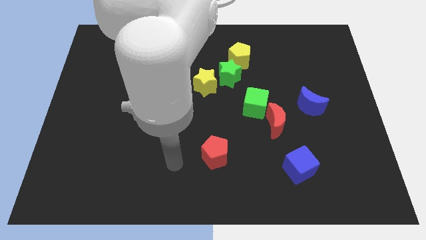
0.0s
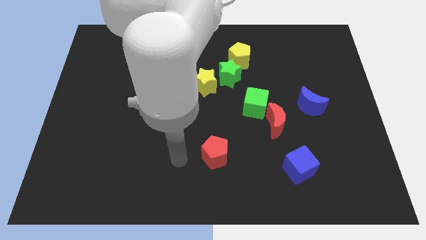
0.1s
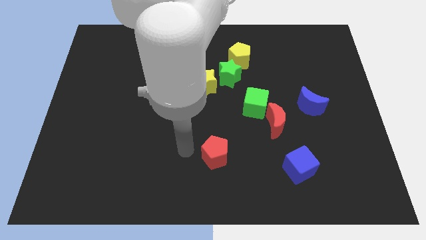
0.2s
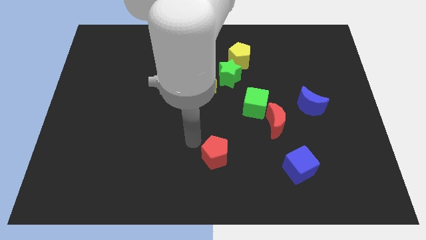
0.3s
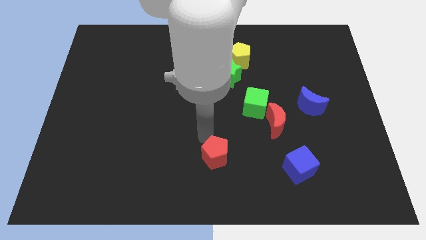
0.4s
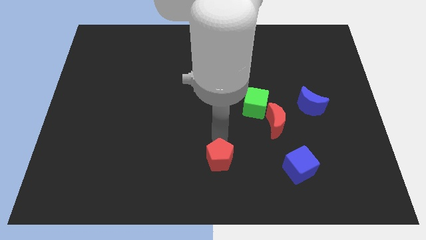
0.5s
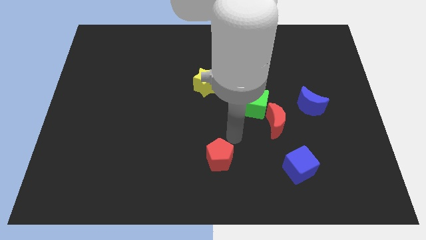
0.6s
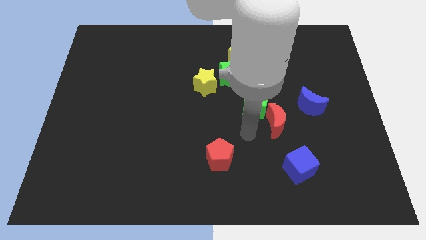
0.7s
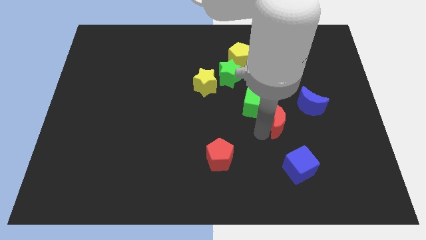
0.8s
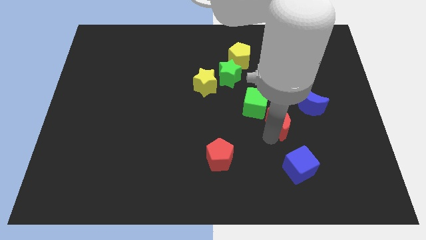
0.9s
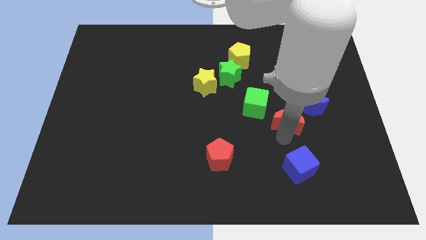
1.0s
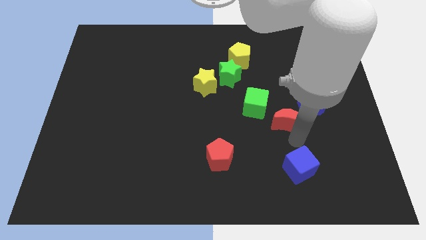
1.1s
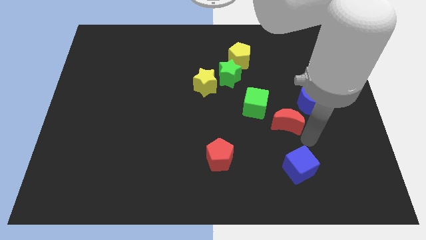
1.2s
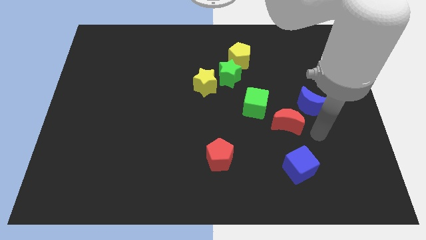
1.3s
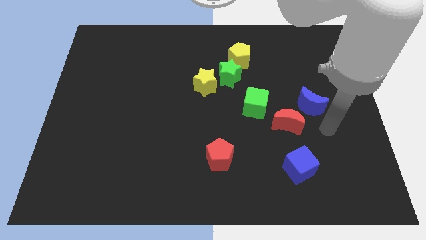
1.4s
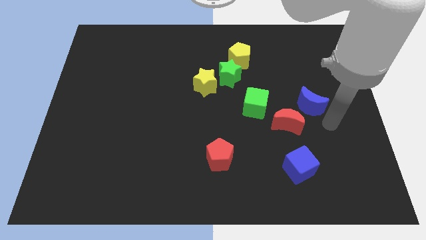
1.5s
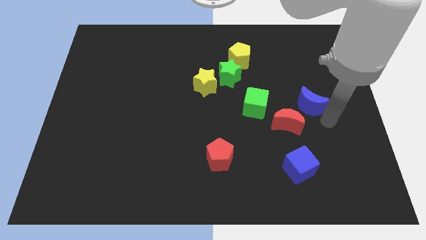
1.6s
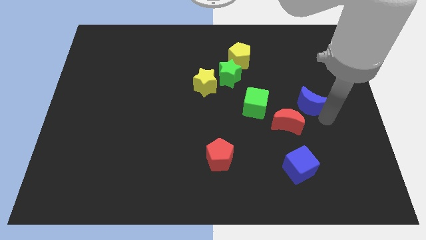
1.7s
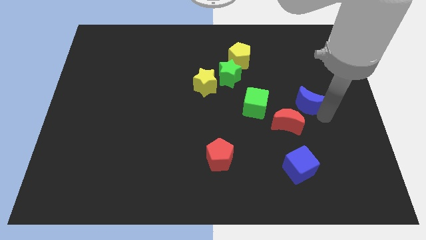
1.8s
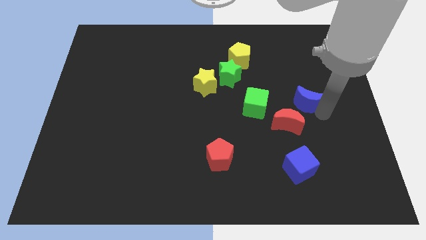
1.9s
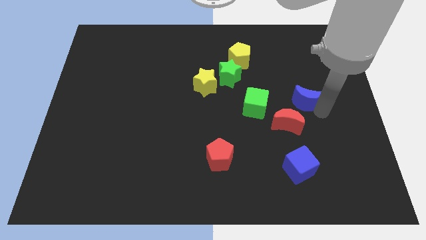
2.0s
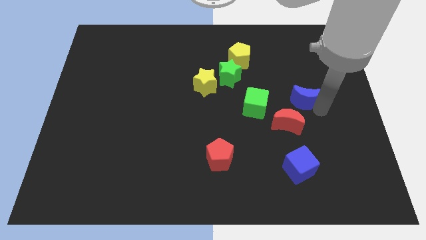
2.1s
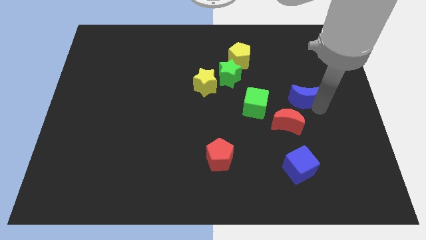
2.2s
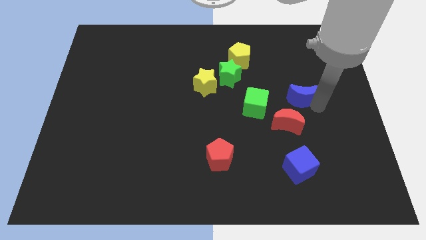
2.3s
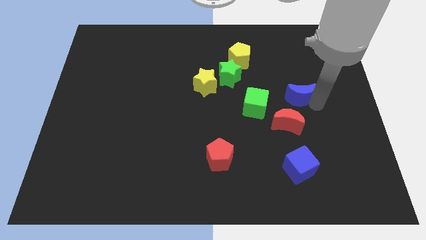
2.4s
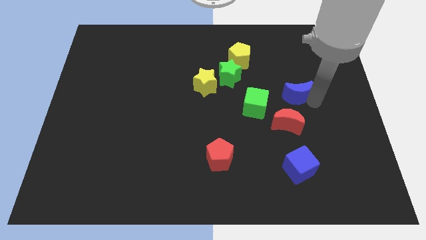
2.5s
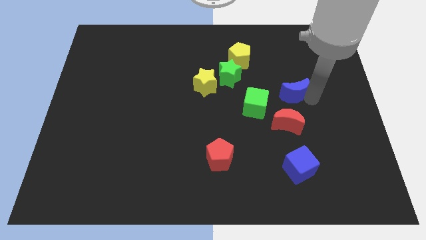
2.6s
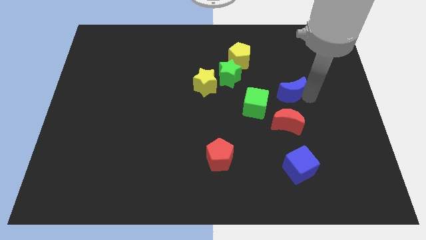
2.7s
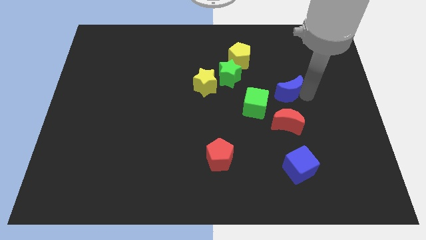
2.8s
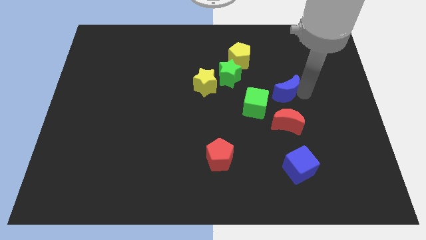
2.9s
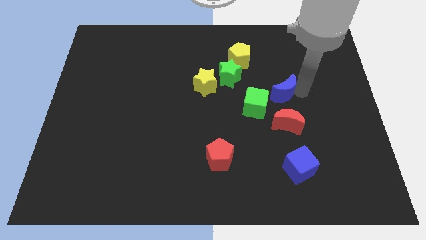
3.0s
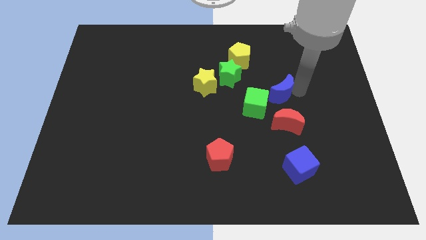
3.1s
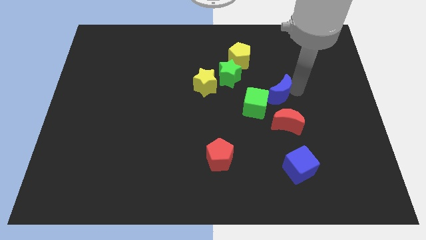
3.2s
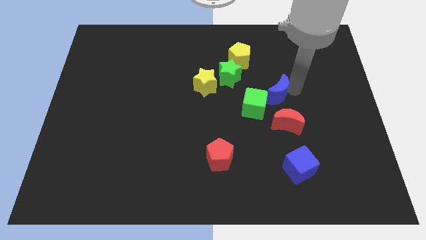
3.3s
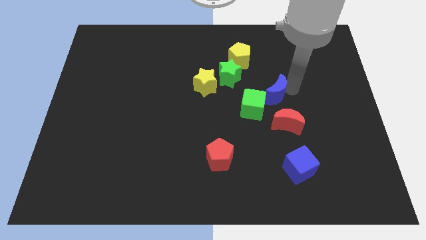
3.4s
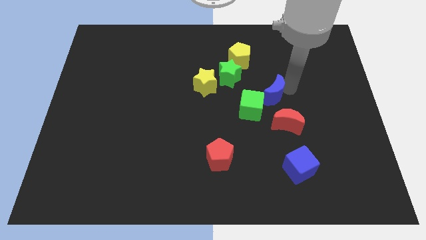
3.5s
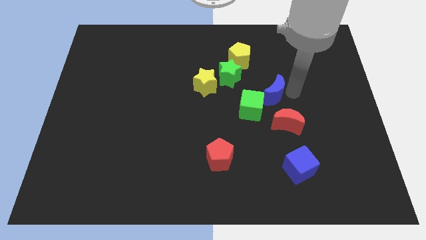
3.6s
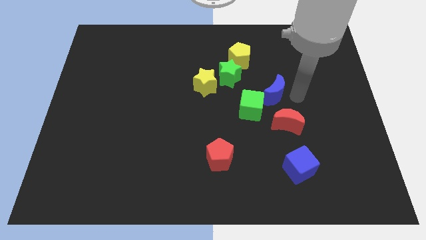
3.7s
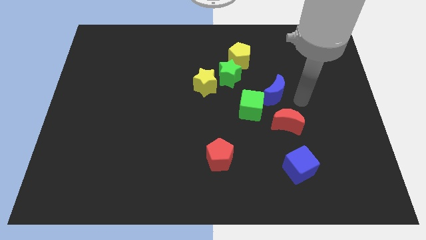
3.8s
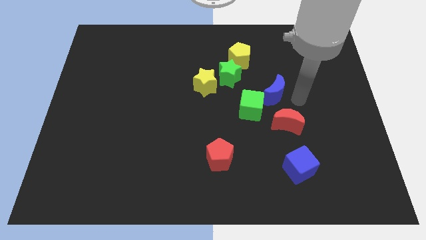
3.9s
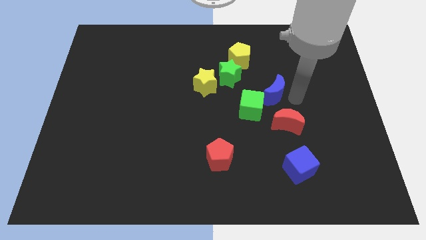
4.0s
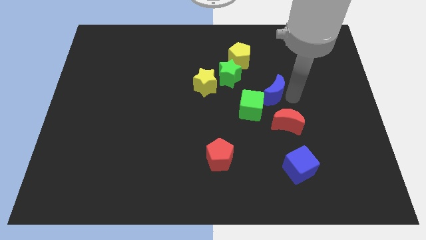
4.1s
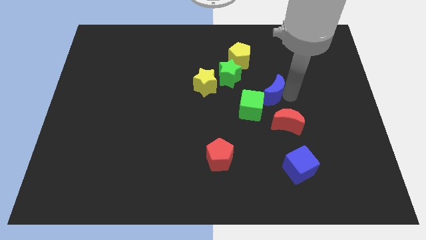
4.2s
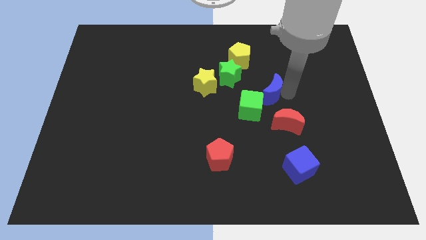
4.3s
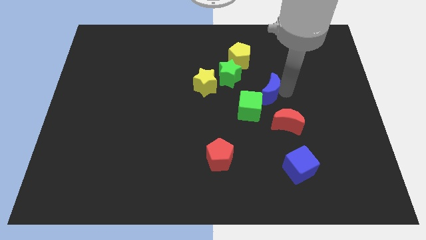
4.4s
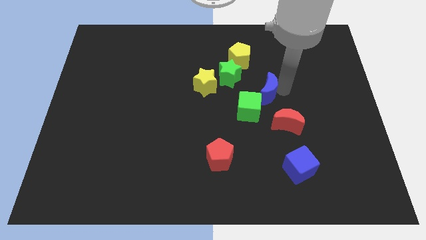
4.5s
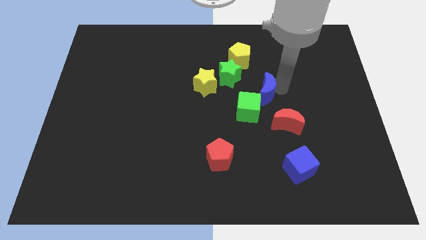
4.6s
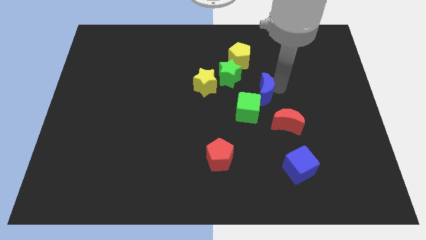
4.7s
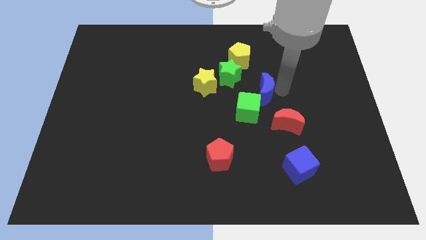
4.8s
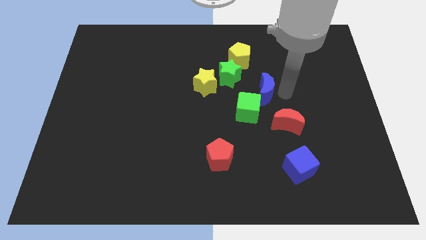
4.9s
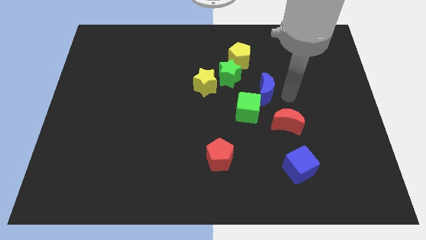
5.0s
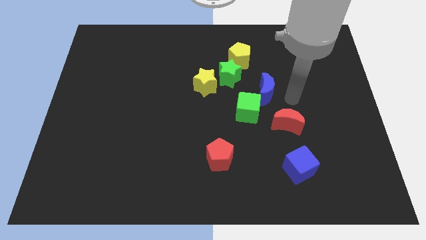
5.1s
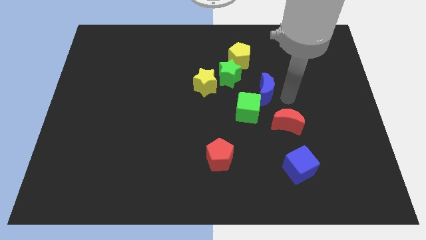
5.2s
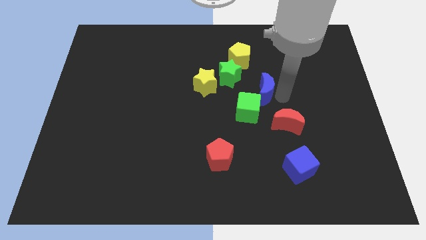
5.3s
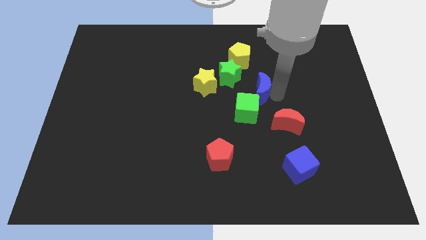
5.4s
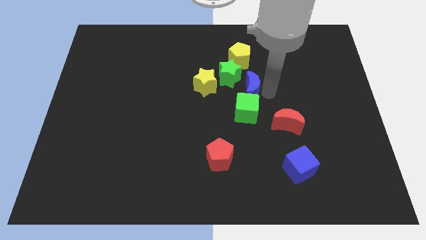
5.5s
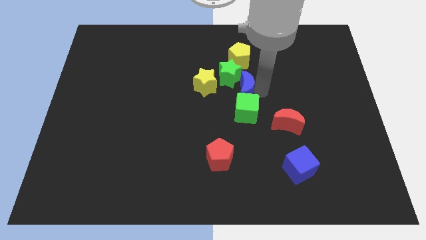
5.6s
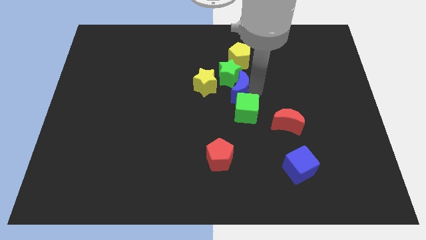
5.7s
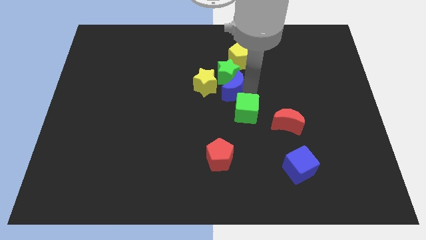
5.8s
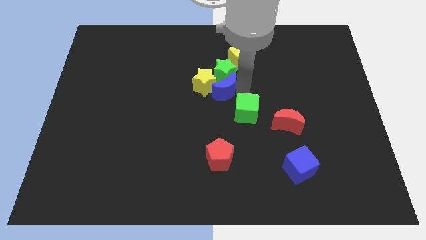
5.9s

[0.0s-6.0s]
move the blue moon towards the yellow star

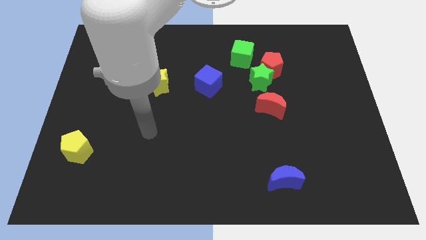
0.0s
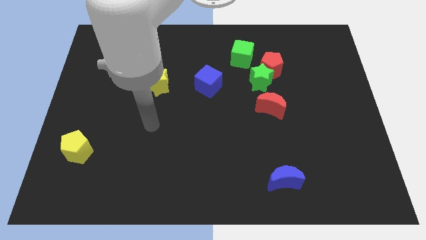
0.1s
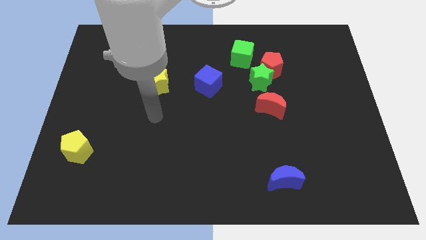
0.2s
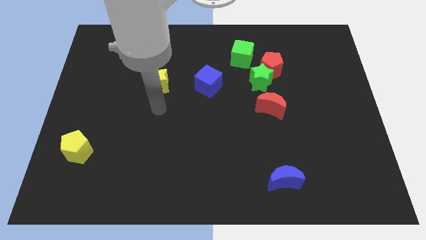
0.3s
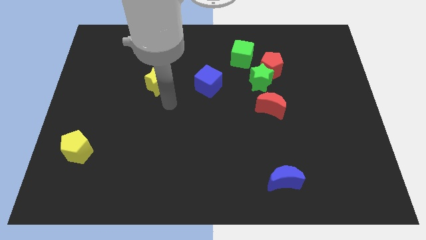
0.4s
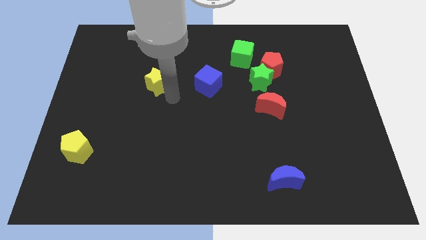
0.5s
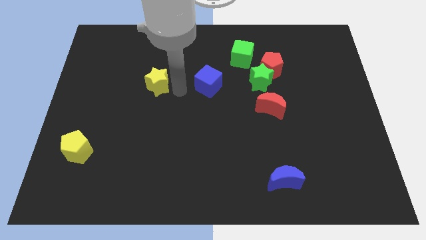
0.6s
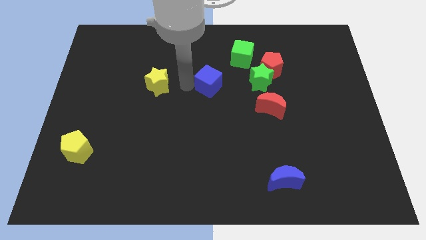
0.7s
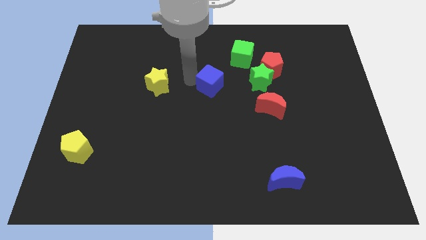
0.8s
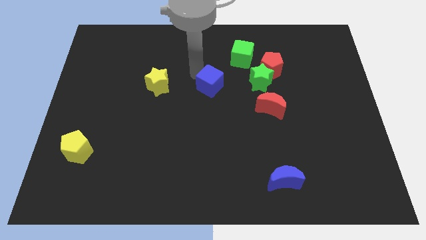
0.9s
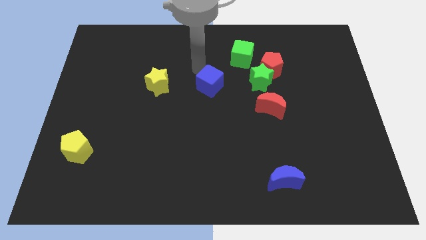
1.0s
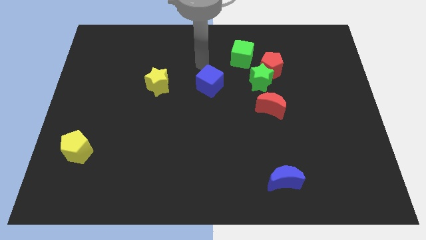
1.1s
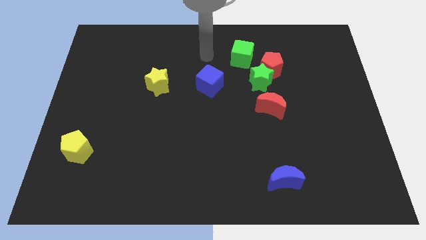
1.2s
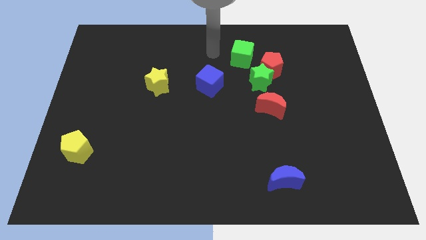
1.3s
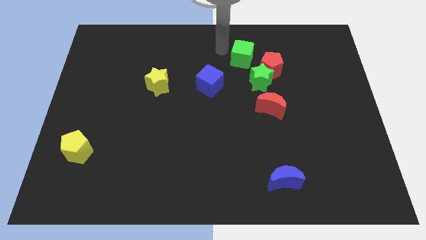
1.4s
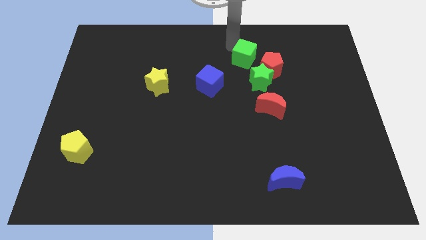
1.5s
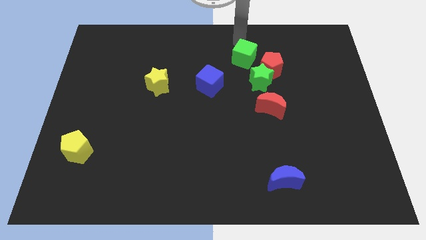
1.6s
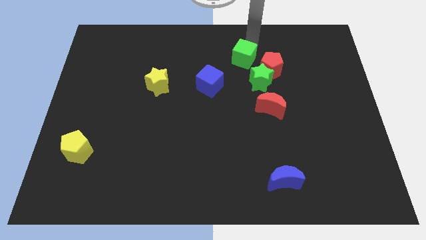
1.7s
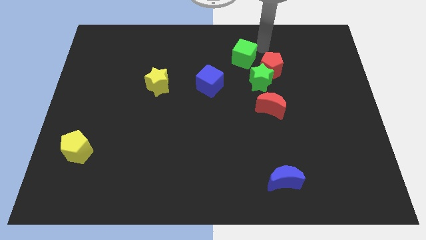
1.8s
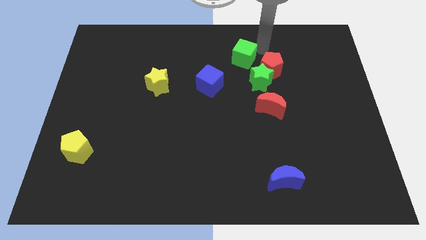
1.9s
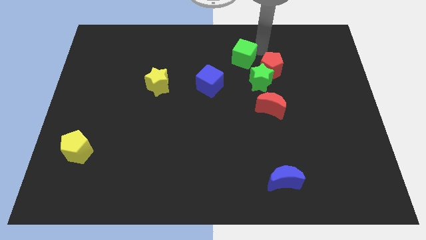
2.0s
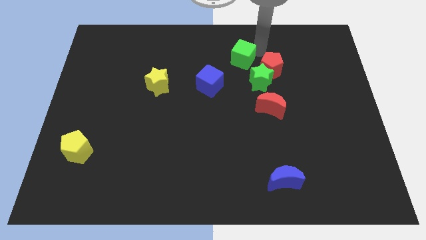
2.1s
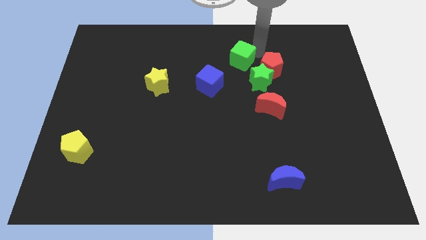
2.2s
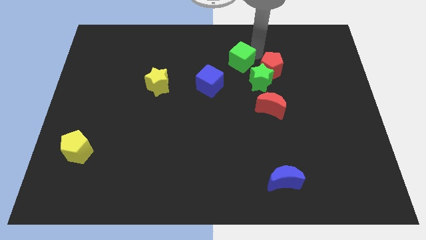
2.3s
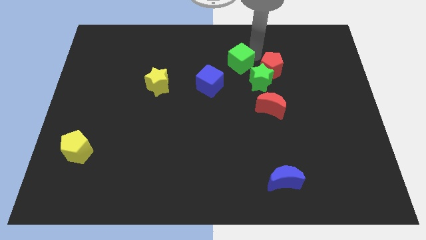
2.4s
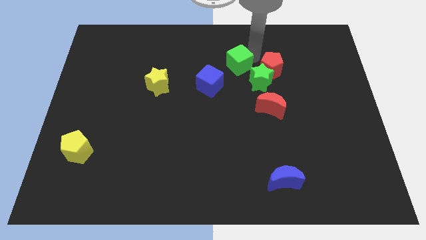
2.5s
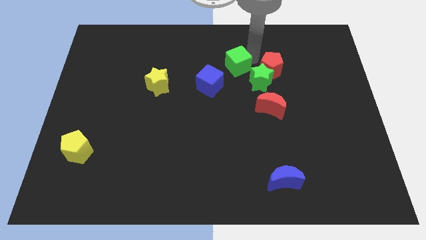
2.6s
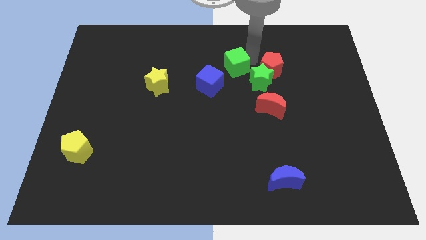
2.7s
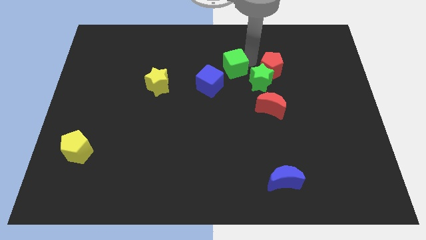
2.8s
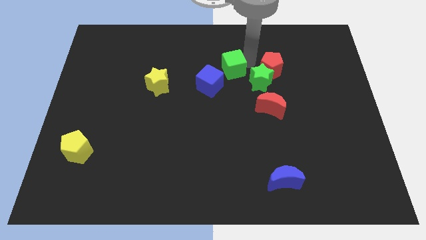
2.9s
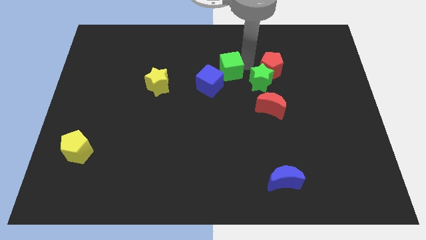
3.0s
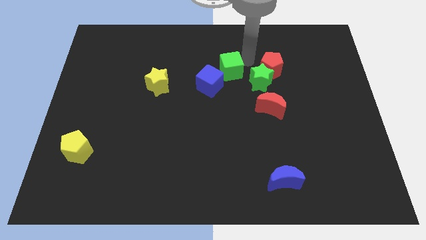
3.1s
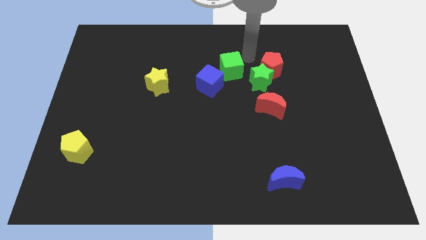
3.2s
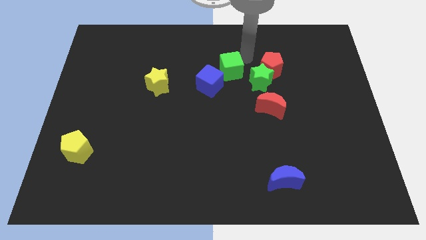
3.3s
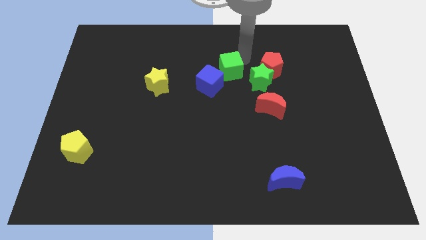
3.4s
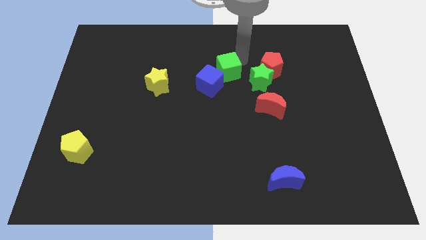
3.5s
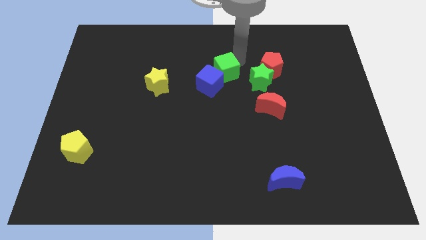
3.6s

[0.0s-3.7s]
put the green cube close to the blue cube
